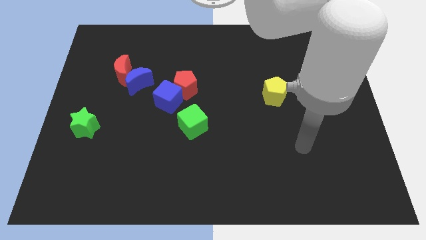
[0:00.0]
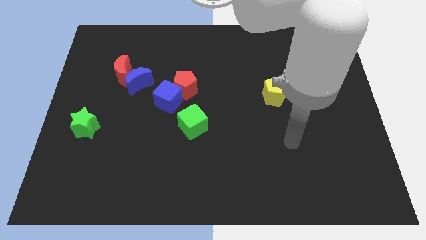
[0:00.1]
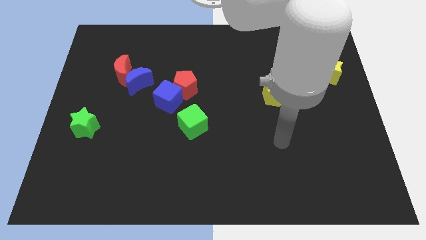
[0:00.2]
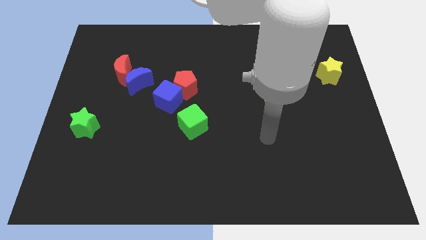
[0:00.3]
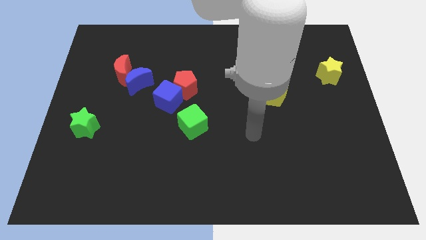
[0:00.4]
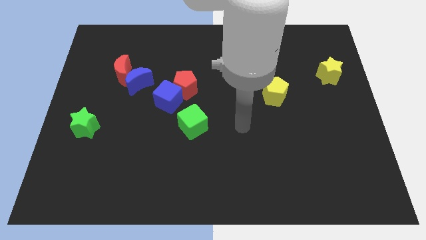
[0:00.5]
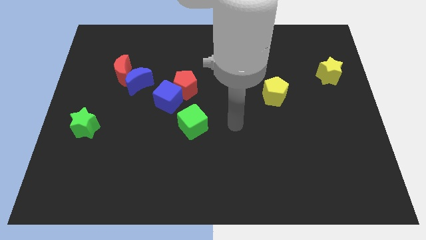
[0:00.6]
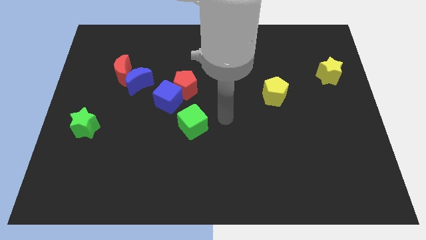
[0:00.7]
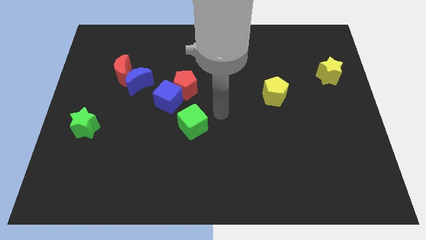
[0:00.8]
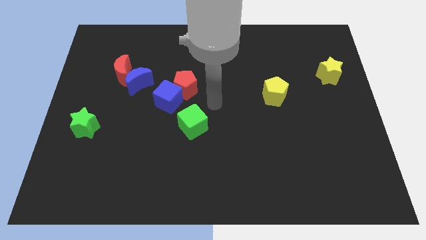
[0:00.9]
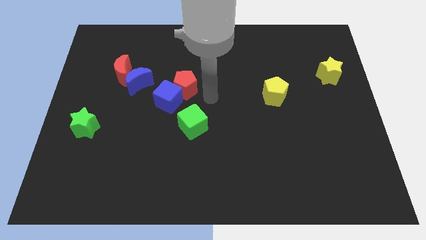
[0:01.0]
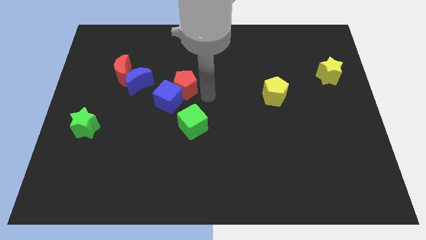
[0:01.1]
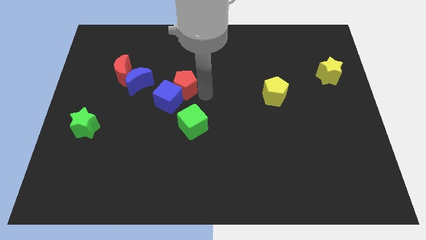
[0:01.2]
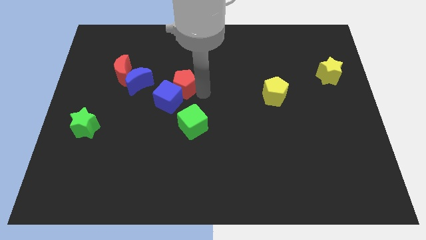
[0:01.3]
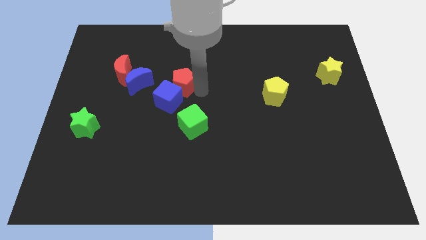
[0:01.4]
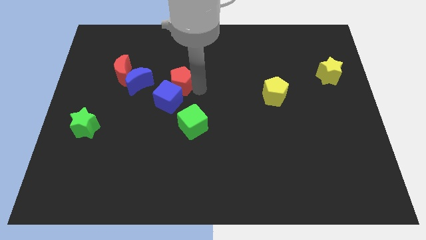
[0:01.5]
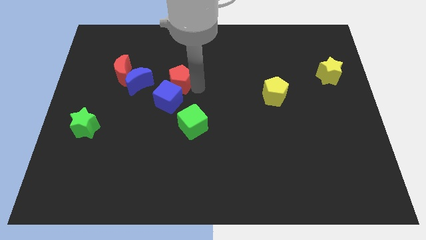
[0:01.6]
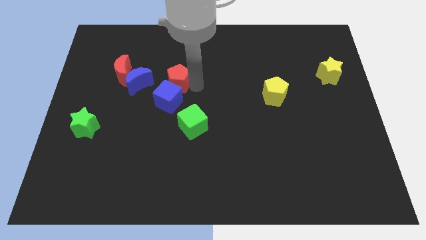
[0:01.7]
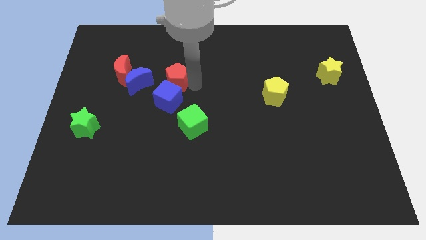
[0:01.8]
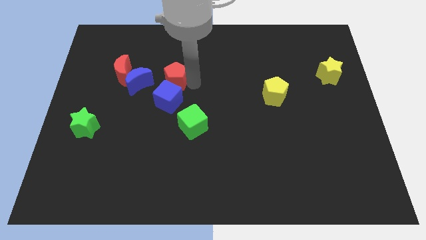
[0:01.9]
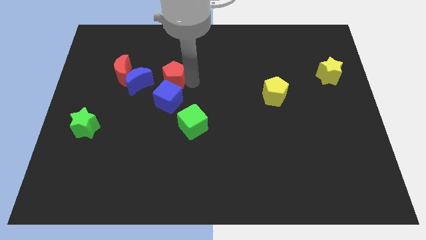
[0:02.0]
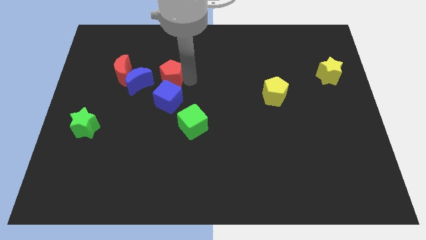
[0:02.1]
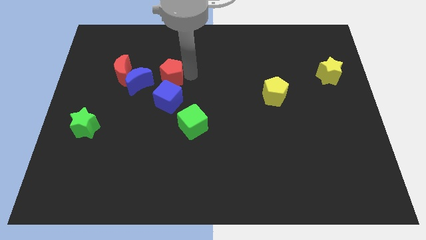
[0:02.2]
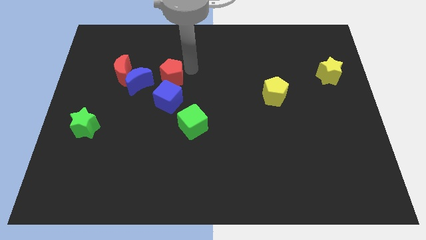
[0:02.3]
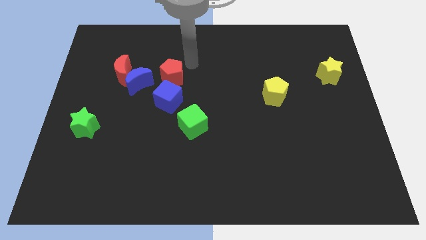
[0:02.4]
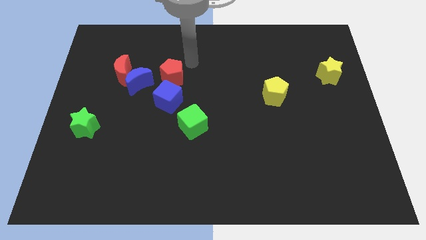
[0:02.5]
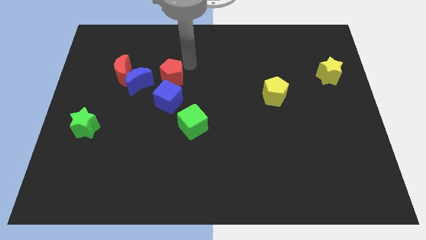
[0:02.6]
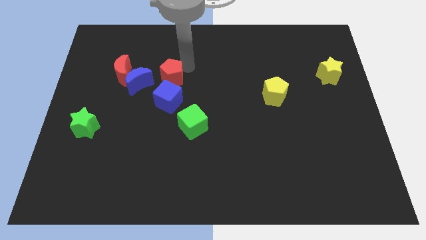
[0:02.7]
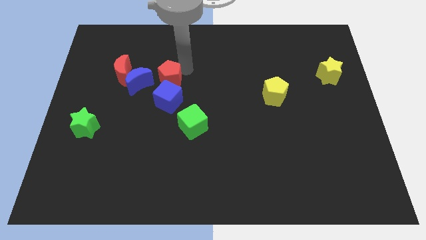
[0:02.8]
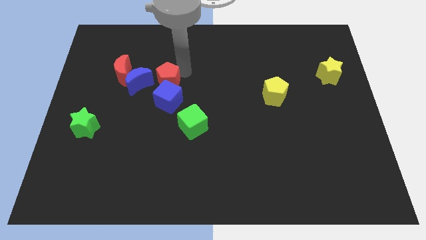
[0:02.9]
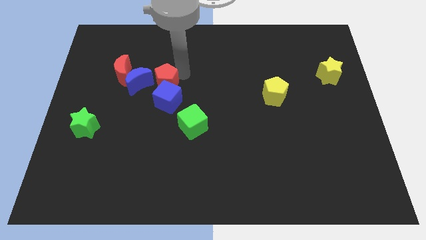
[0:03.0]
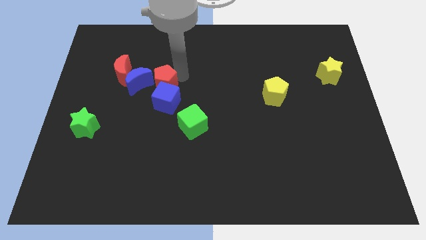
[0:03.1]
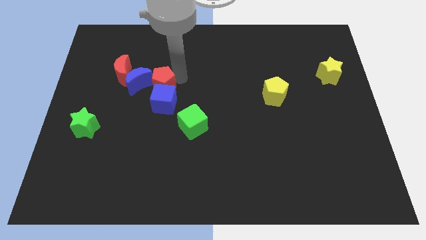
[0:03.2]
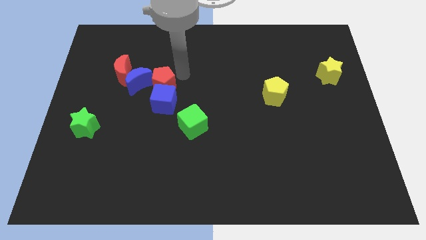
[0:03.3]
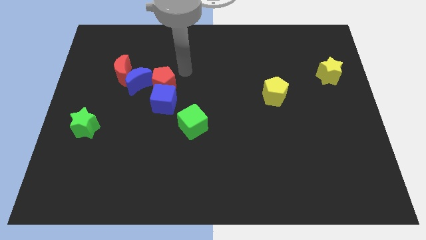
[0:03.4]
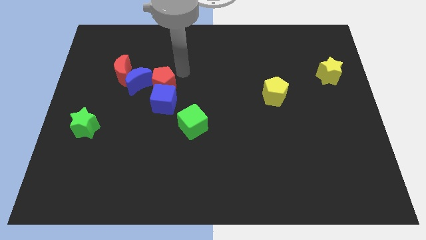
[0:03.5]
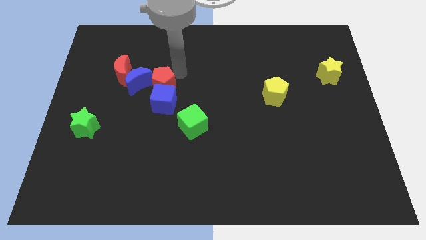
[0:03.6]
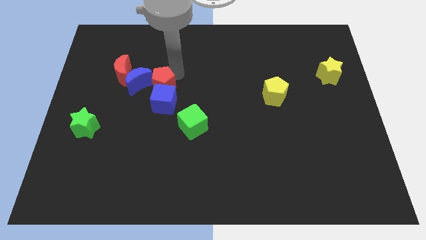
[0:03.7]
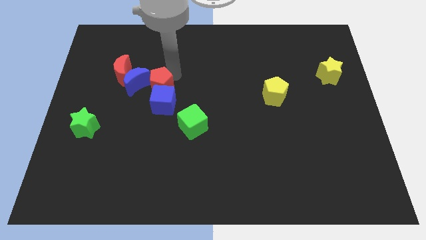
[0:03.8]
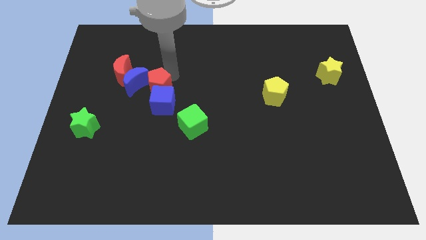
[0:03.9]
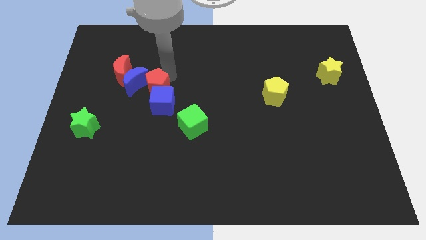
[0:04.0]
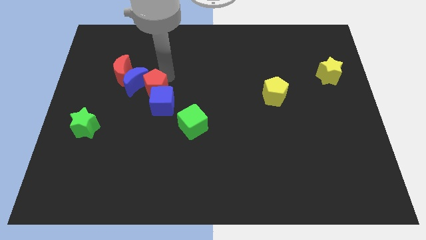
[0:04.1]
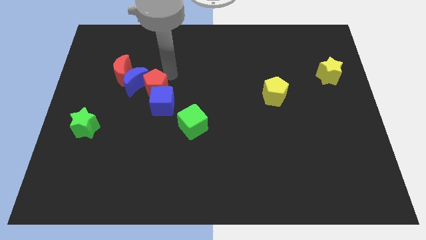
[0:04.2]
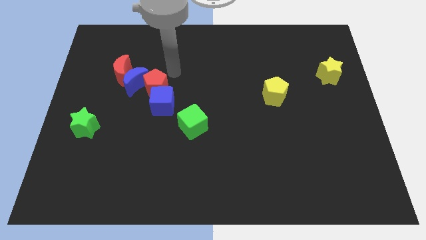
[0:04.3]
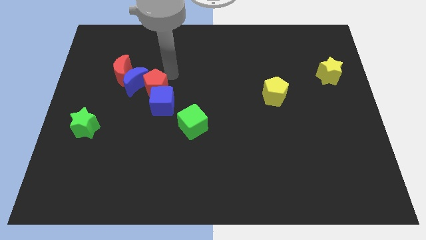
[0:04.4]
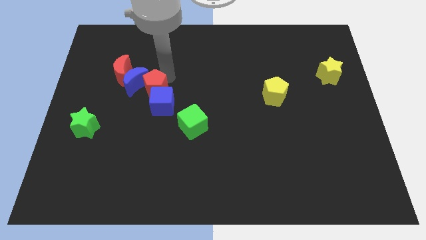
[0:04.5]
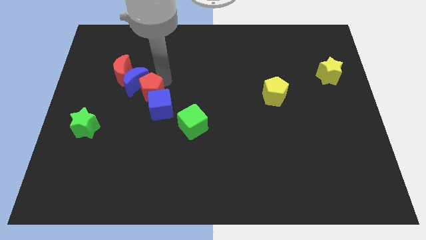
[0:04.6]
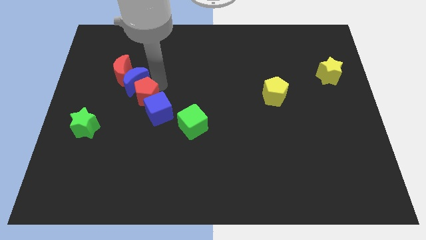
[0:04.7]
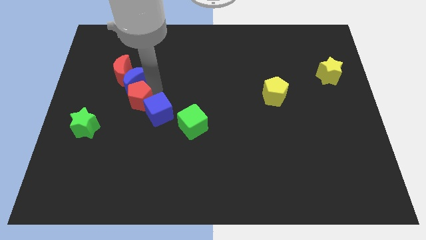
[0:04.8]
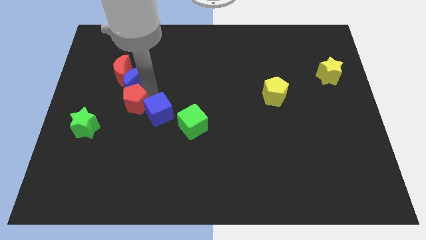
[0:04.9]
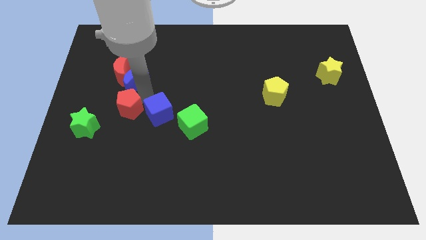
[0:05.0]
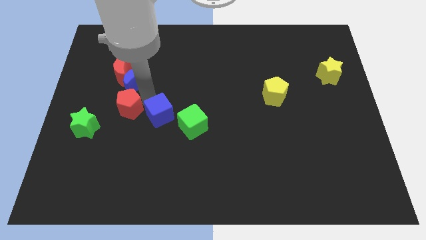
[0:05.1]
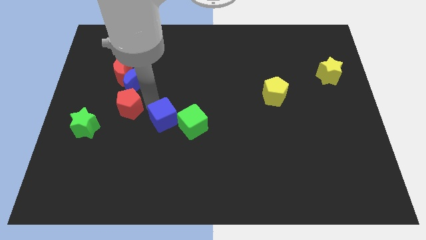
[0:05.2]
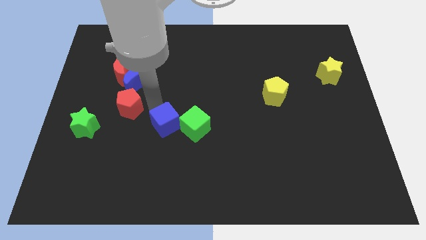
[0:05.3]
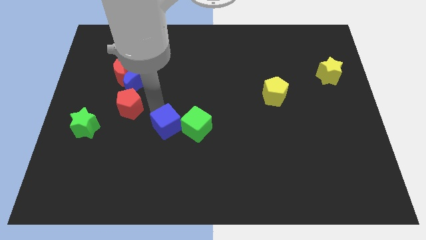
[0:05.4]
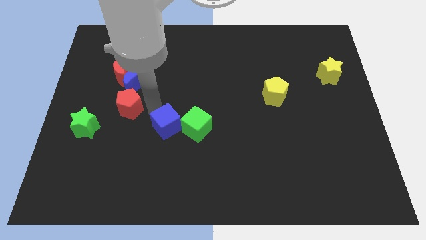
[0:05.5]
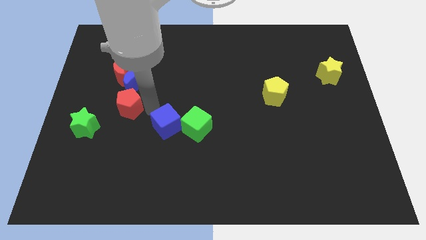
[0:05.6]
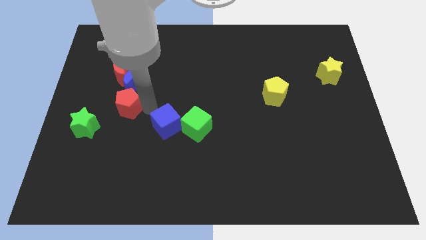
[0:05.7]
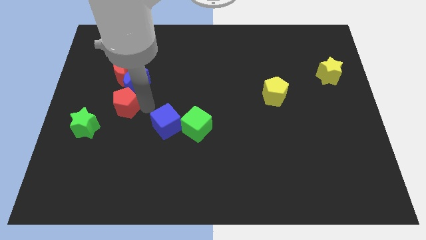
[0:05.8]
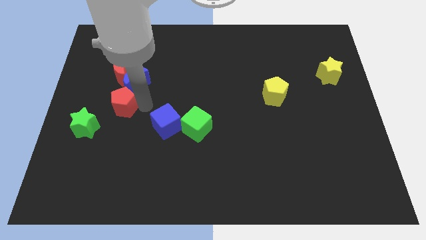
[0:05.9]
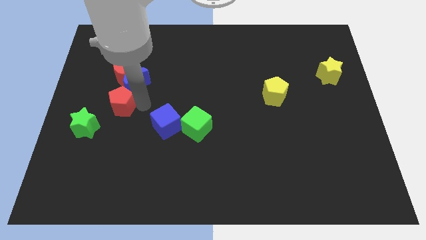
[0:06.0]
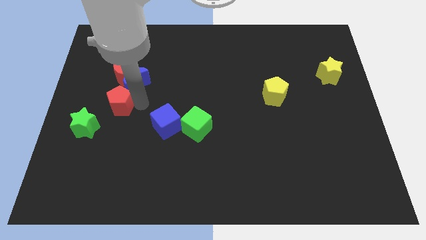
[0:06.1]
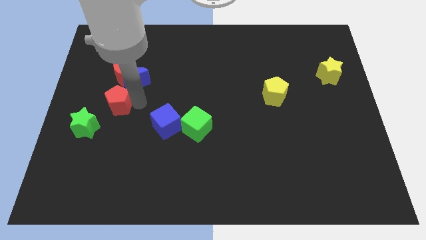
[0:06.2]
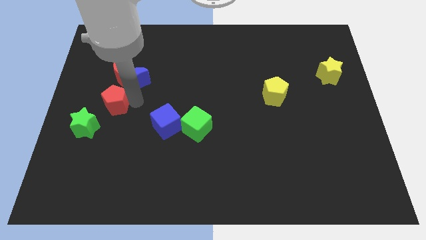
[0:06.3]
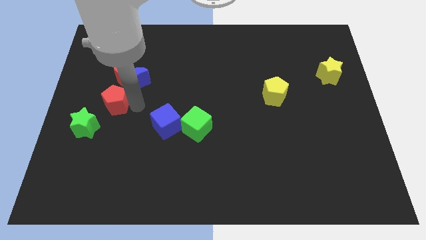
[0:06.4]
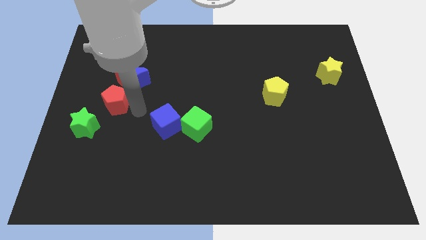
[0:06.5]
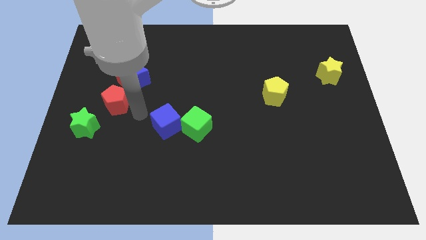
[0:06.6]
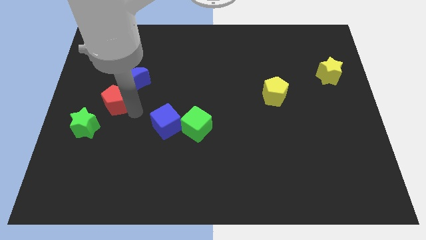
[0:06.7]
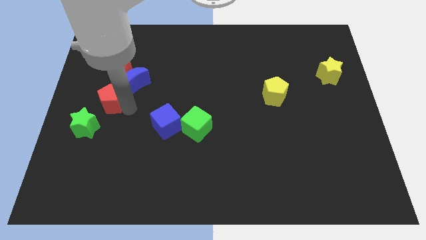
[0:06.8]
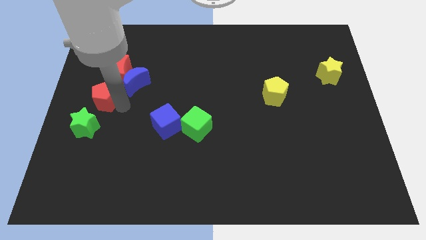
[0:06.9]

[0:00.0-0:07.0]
put the red pentagon to the top of the green star

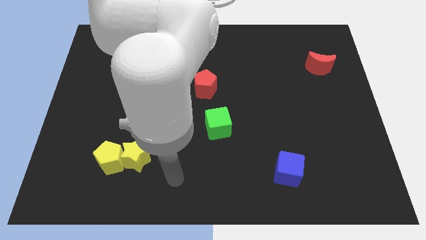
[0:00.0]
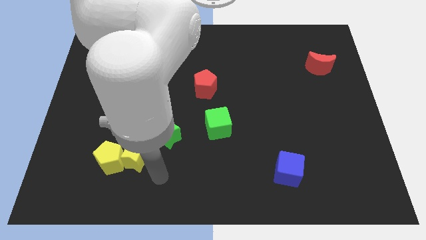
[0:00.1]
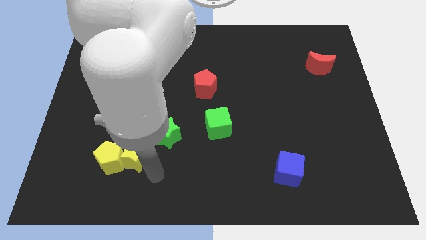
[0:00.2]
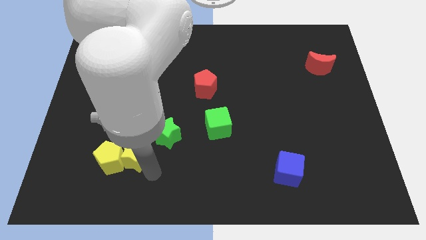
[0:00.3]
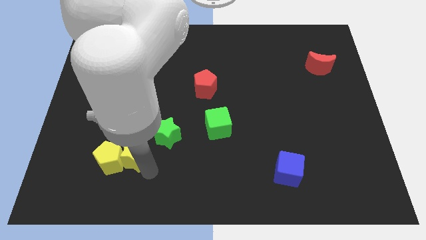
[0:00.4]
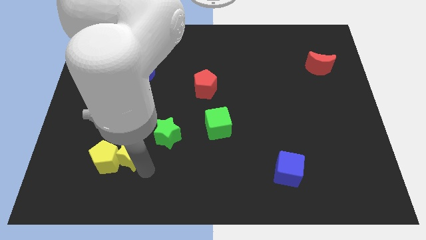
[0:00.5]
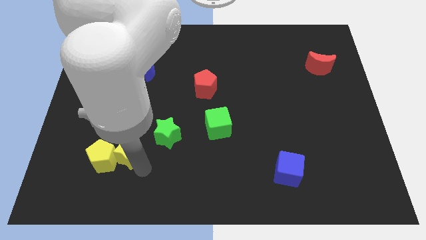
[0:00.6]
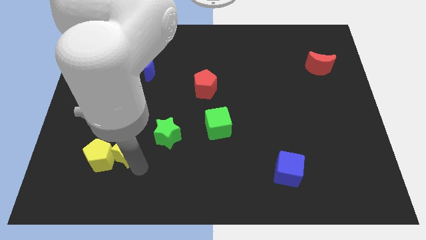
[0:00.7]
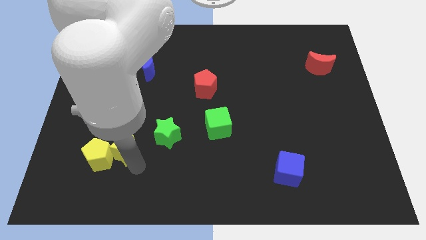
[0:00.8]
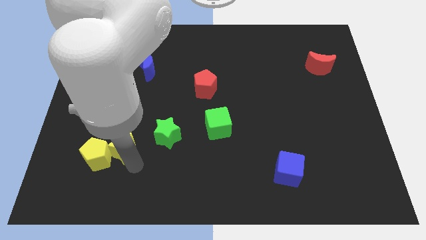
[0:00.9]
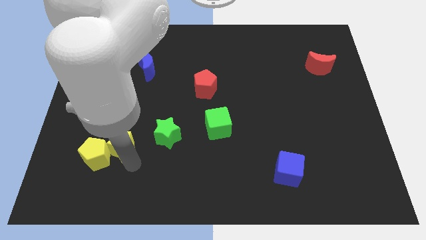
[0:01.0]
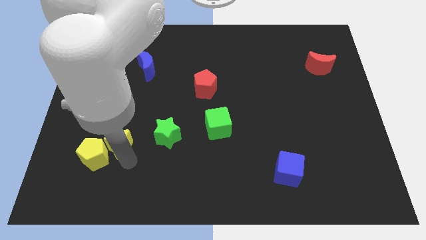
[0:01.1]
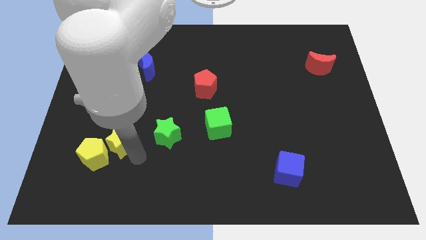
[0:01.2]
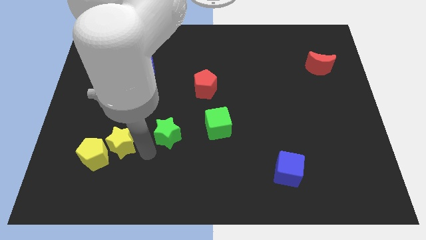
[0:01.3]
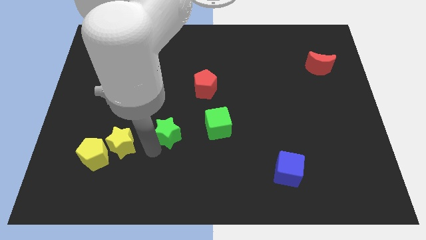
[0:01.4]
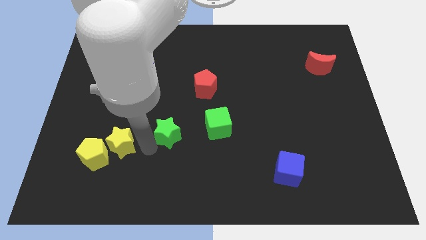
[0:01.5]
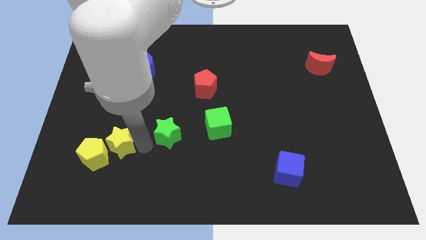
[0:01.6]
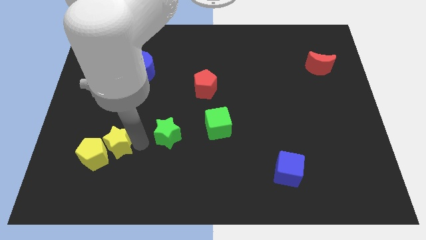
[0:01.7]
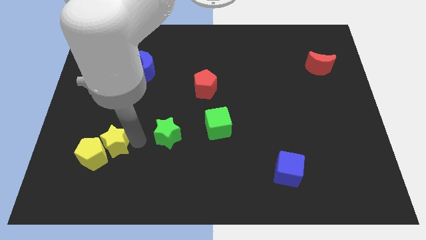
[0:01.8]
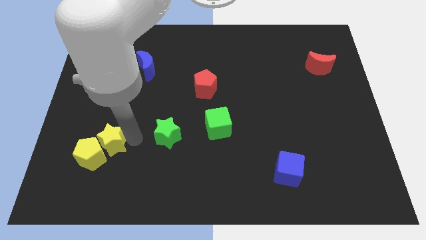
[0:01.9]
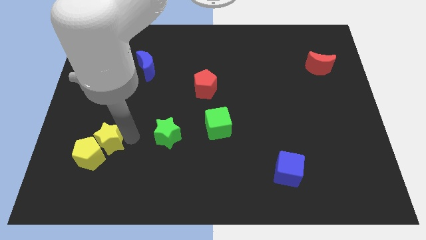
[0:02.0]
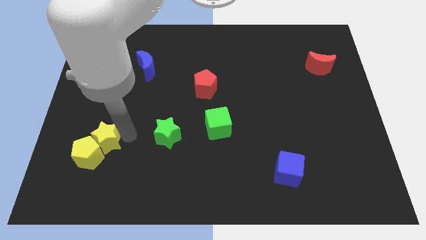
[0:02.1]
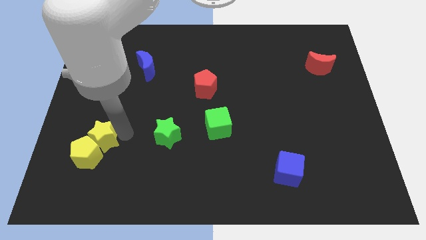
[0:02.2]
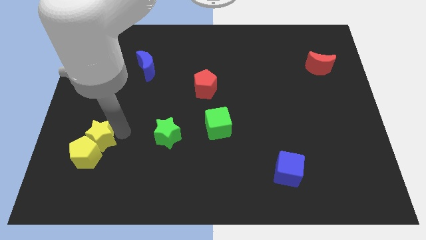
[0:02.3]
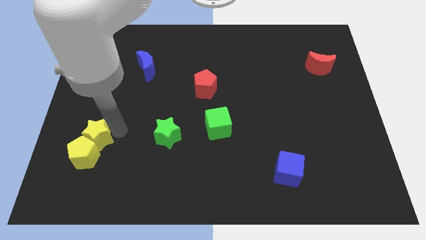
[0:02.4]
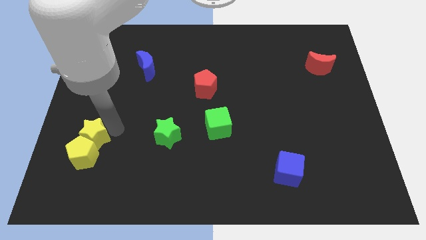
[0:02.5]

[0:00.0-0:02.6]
slide the yellow star to the top left side of the yellow pentagon
